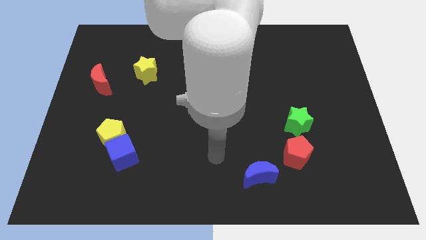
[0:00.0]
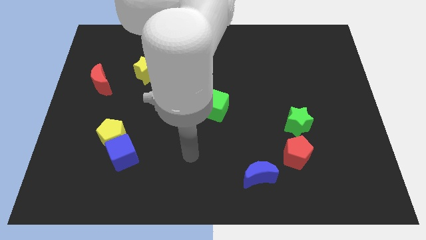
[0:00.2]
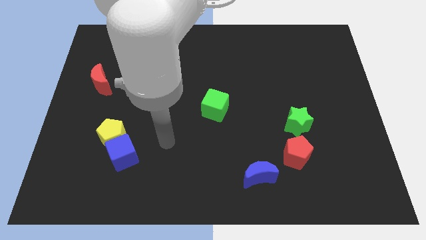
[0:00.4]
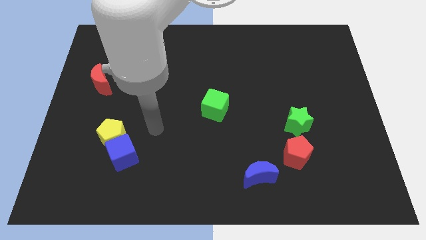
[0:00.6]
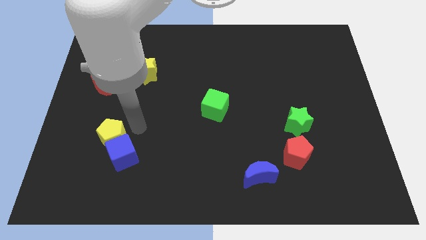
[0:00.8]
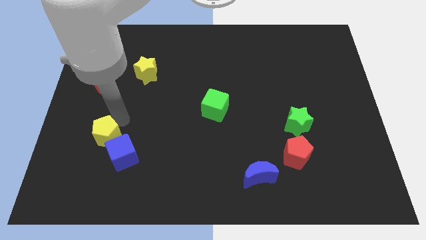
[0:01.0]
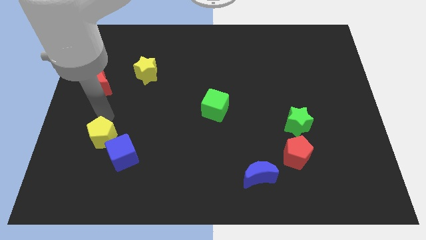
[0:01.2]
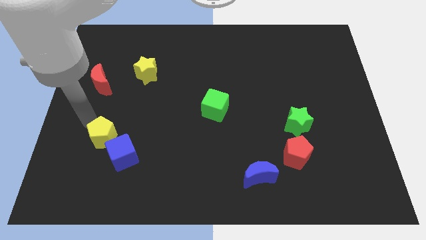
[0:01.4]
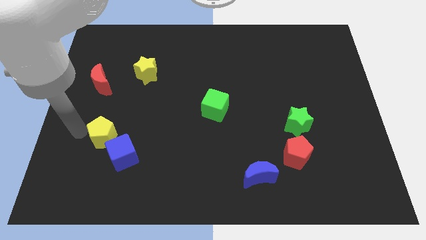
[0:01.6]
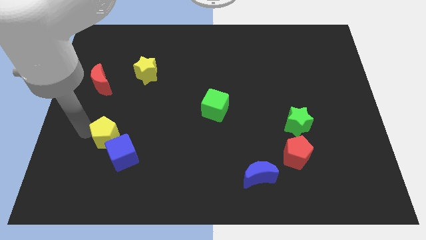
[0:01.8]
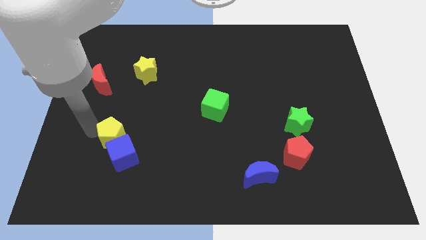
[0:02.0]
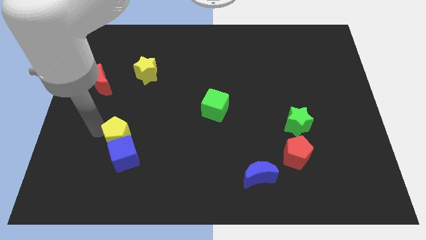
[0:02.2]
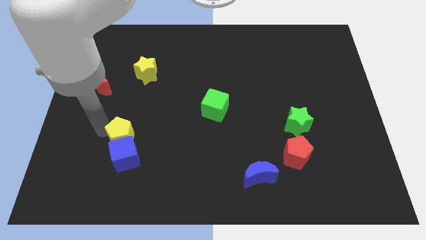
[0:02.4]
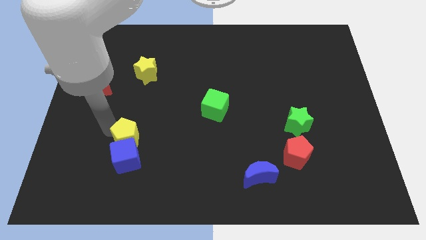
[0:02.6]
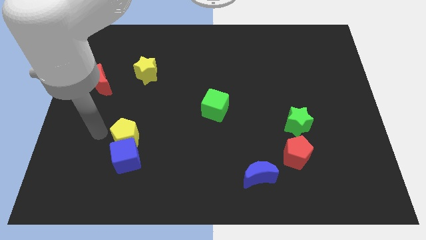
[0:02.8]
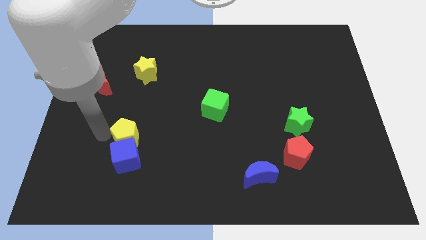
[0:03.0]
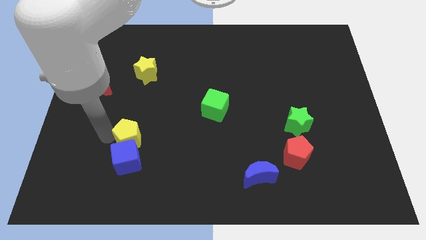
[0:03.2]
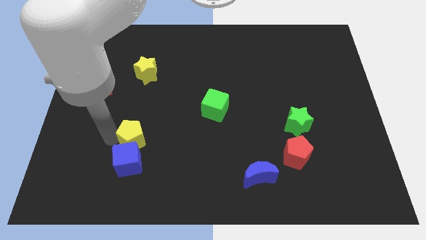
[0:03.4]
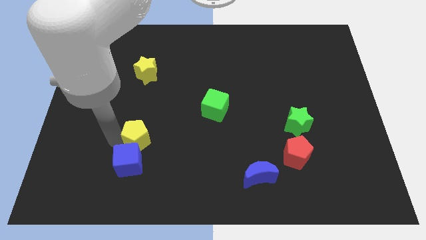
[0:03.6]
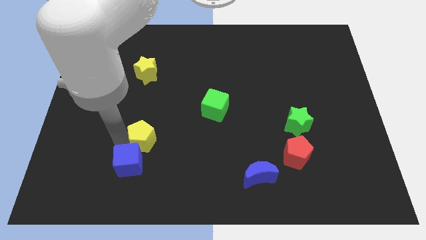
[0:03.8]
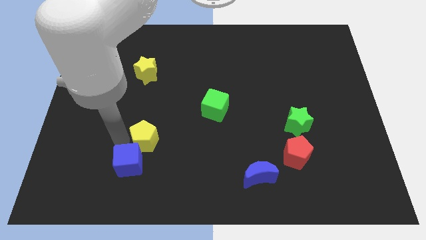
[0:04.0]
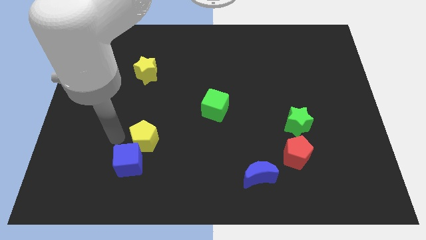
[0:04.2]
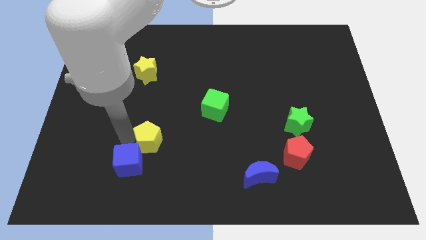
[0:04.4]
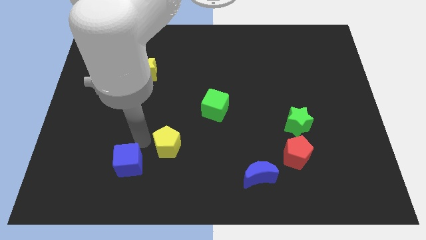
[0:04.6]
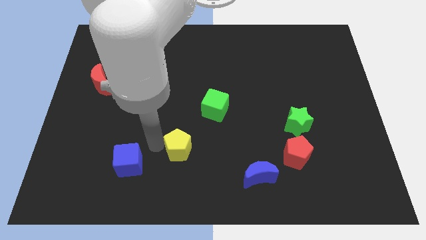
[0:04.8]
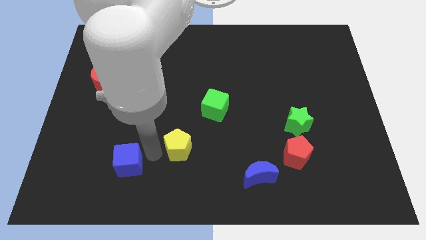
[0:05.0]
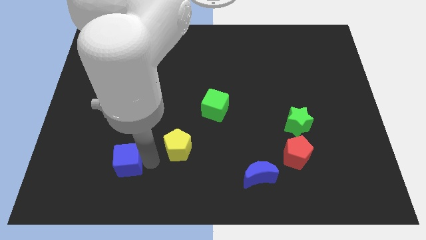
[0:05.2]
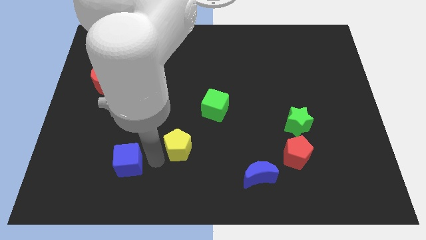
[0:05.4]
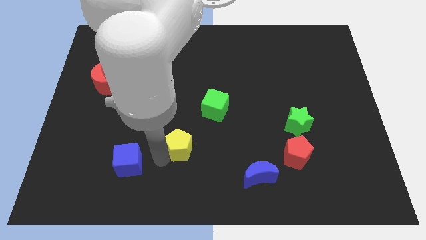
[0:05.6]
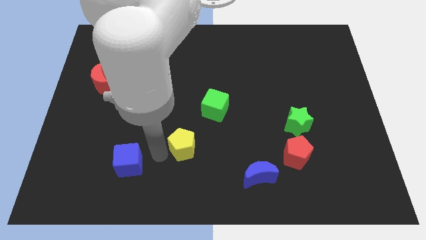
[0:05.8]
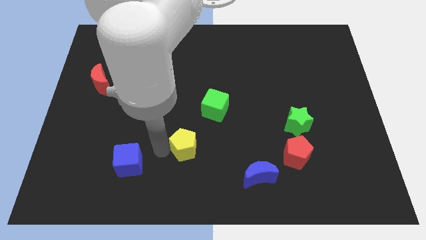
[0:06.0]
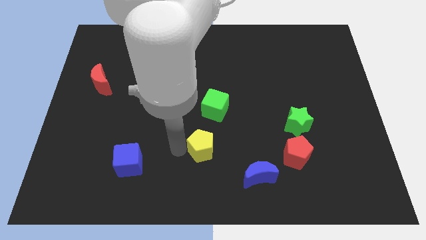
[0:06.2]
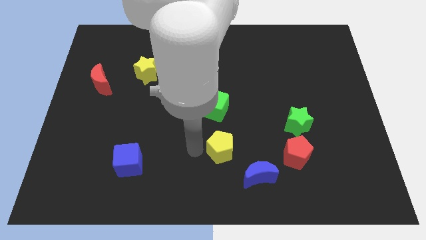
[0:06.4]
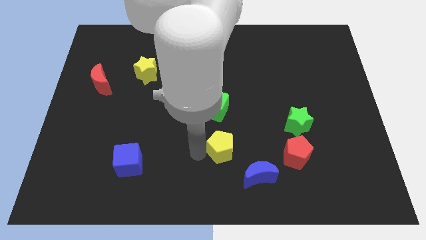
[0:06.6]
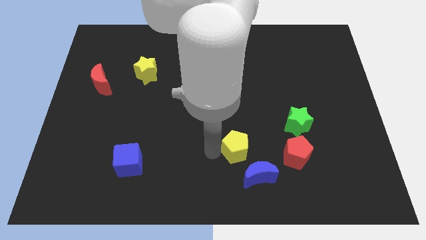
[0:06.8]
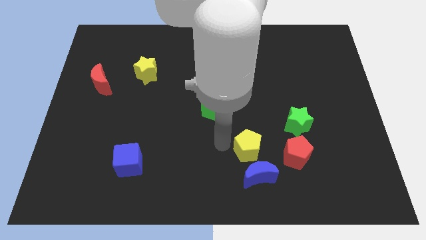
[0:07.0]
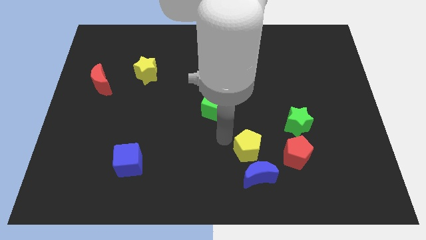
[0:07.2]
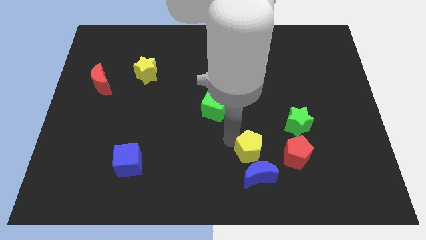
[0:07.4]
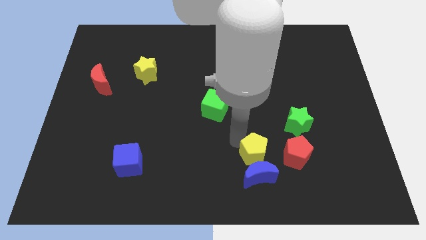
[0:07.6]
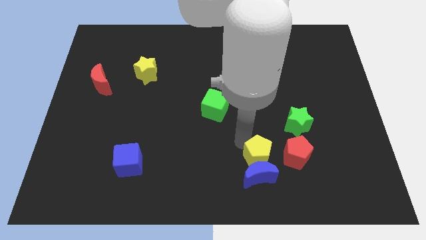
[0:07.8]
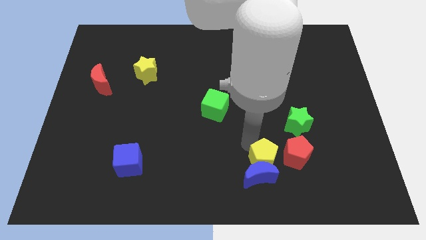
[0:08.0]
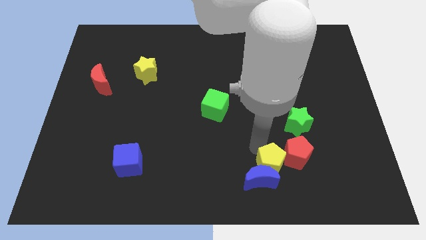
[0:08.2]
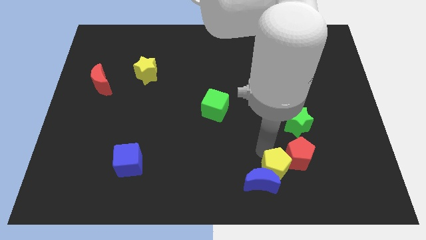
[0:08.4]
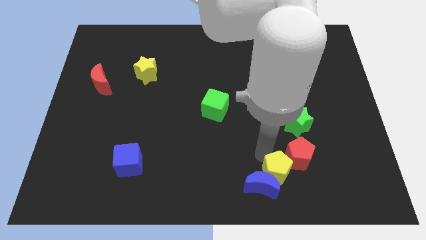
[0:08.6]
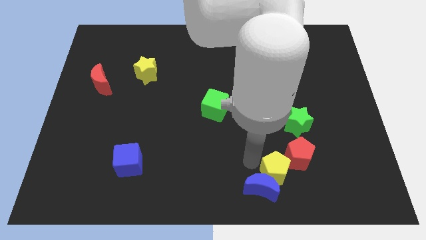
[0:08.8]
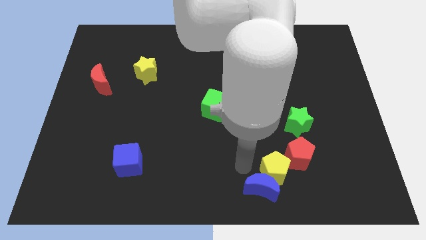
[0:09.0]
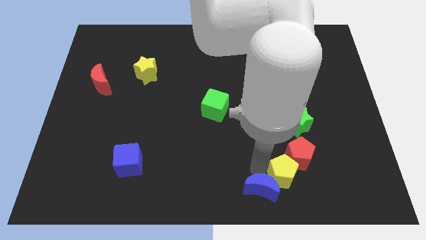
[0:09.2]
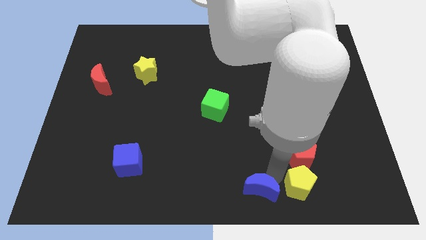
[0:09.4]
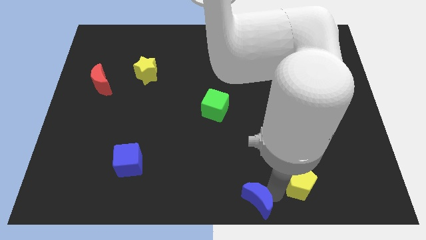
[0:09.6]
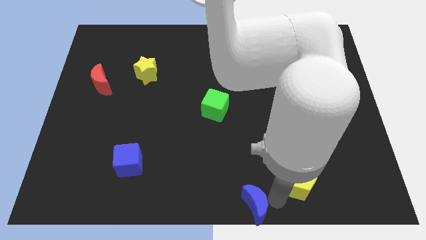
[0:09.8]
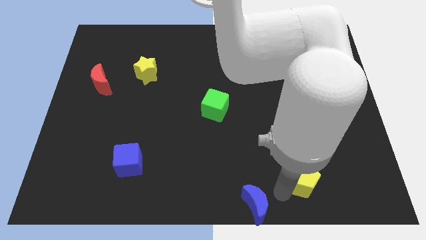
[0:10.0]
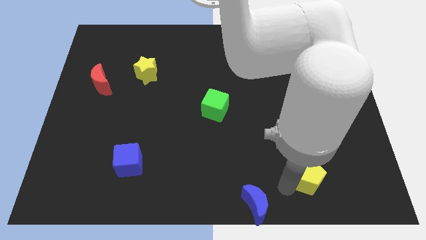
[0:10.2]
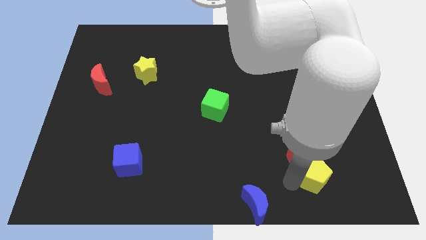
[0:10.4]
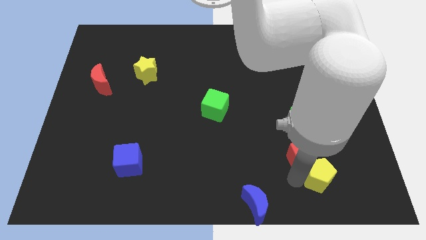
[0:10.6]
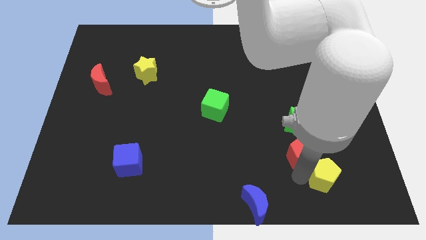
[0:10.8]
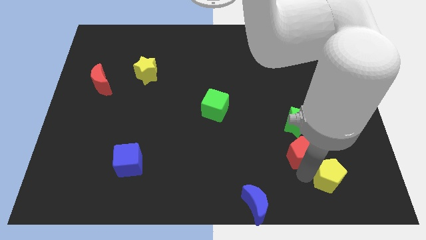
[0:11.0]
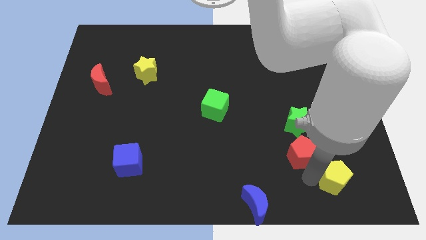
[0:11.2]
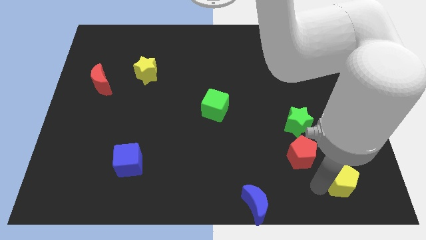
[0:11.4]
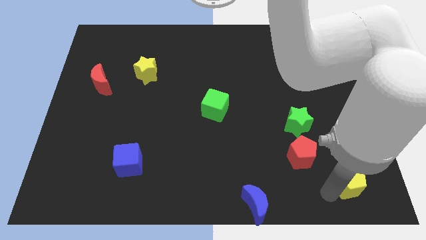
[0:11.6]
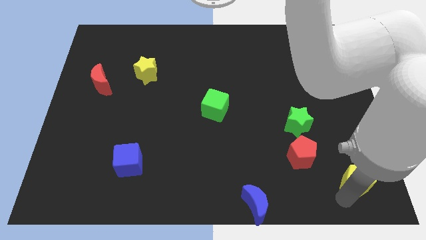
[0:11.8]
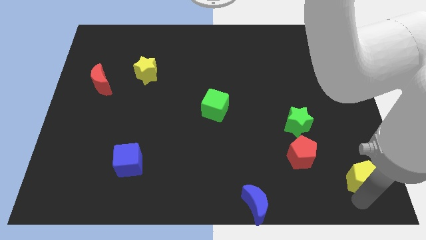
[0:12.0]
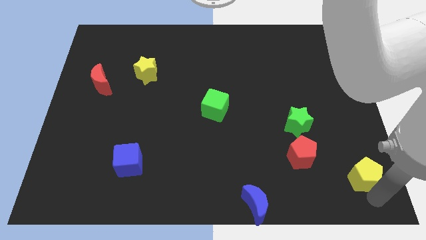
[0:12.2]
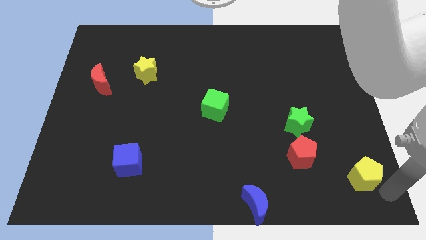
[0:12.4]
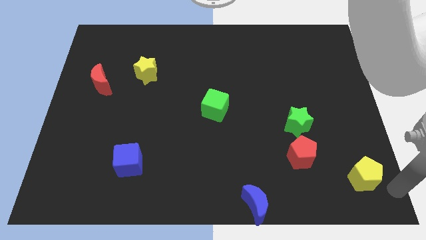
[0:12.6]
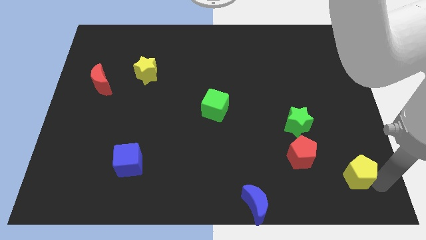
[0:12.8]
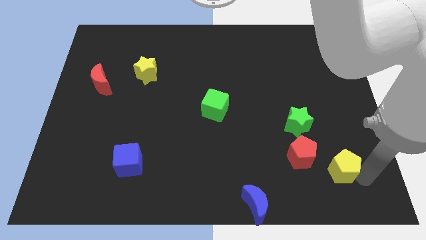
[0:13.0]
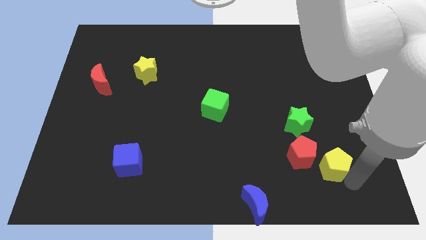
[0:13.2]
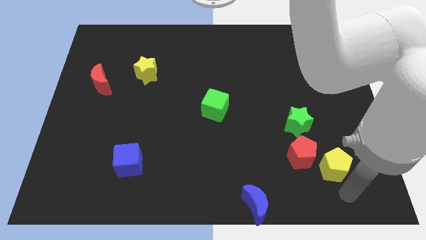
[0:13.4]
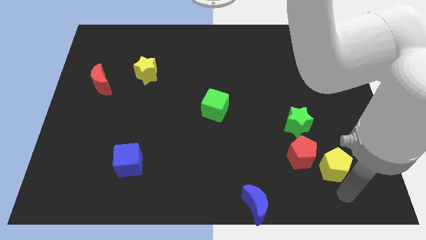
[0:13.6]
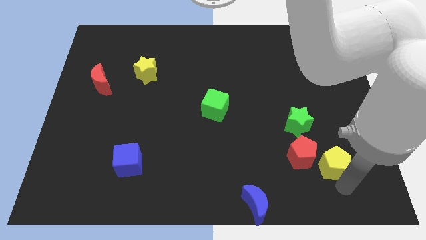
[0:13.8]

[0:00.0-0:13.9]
slide the yellow pentagon diagonally down and to the right of the green star
